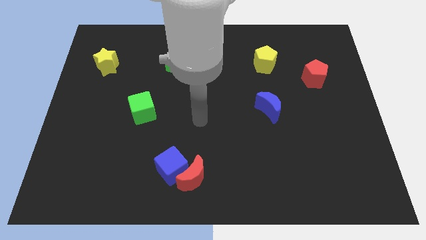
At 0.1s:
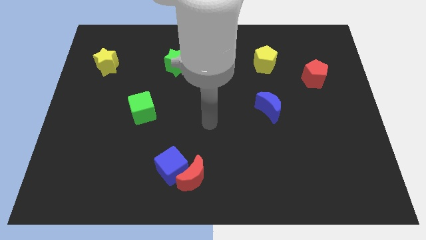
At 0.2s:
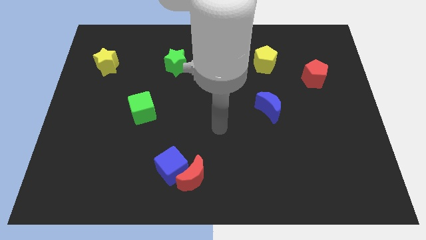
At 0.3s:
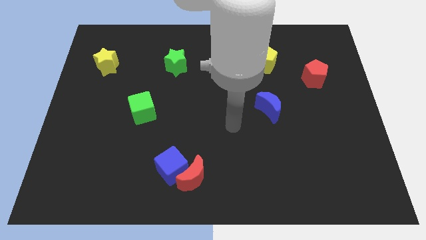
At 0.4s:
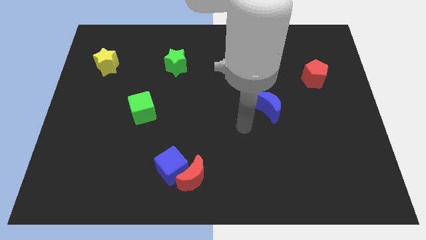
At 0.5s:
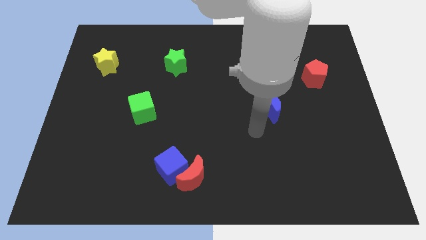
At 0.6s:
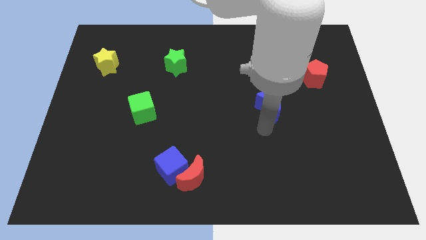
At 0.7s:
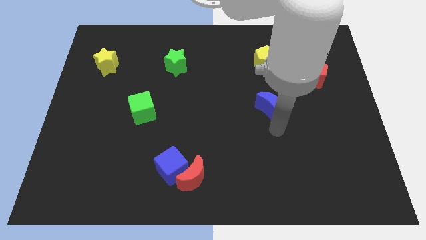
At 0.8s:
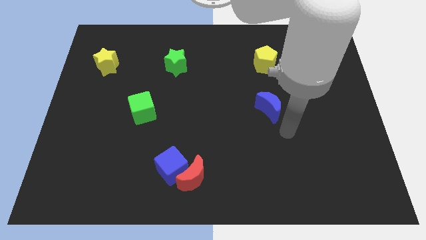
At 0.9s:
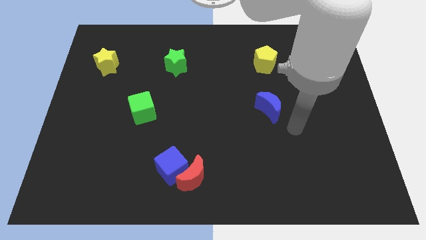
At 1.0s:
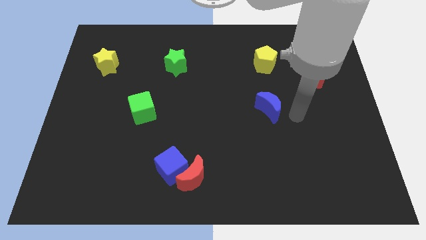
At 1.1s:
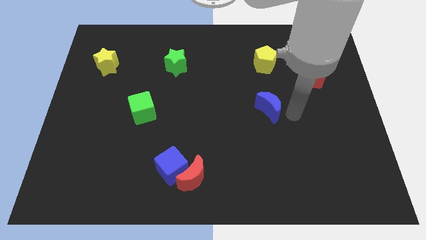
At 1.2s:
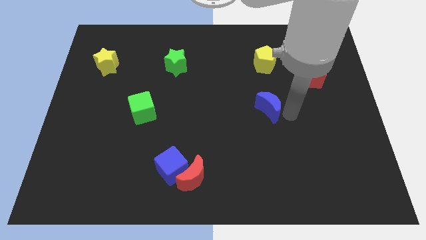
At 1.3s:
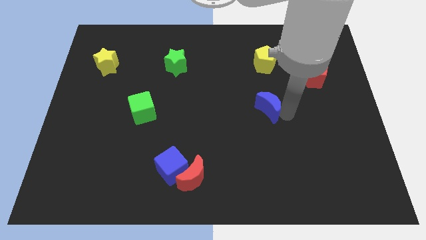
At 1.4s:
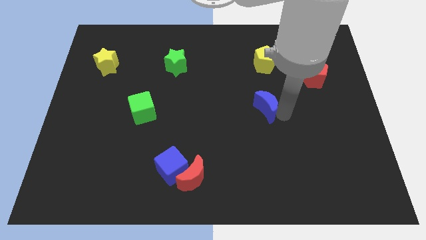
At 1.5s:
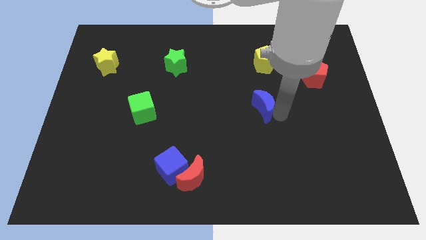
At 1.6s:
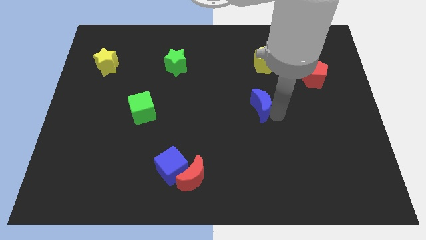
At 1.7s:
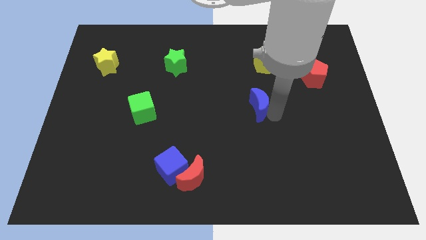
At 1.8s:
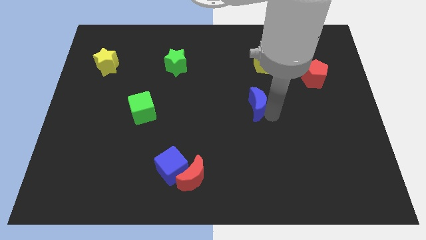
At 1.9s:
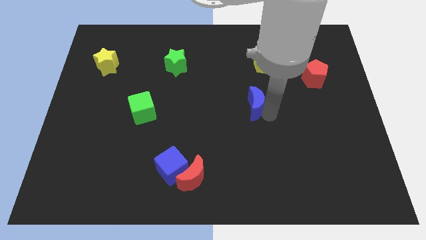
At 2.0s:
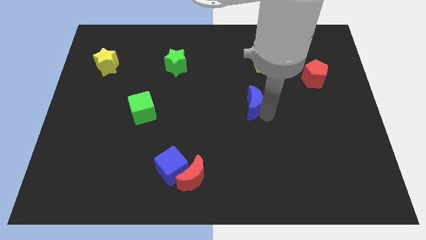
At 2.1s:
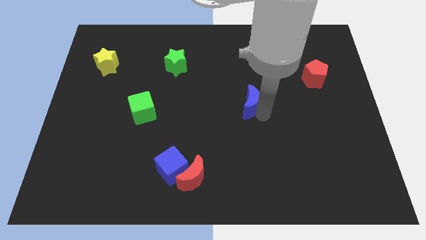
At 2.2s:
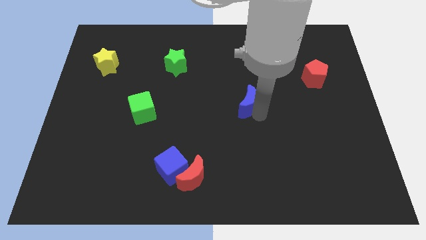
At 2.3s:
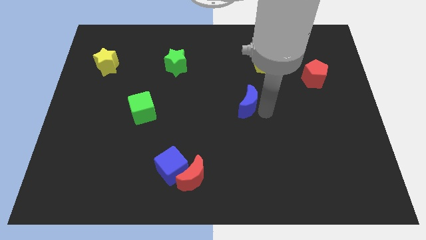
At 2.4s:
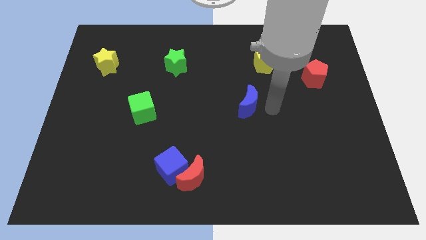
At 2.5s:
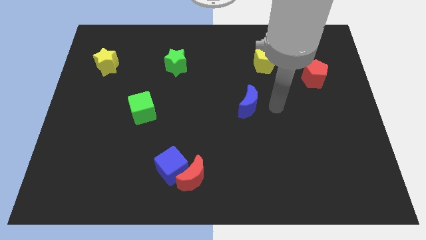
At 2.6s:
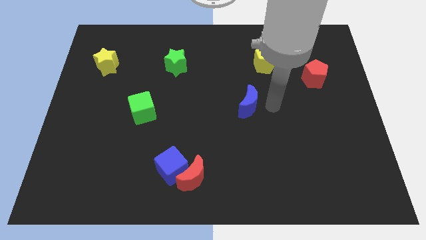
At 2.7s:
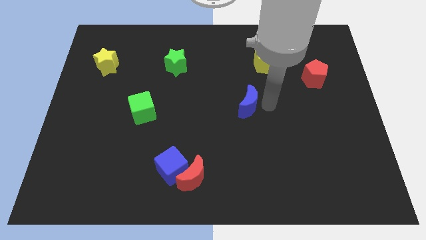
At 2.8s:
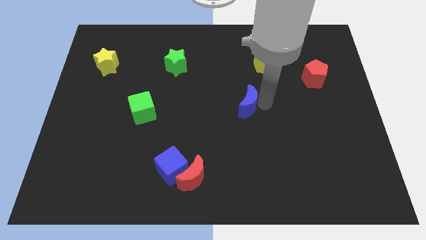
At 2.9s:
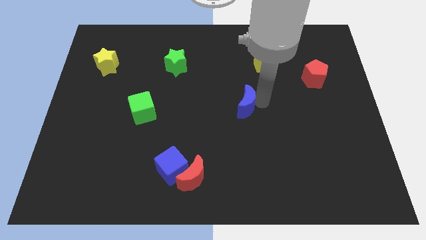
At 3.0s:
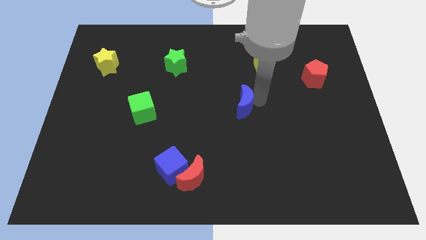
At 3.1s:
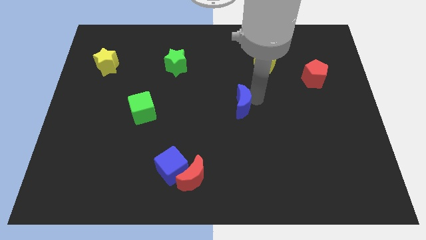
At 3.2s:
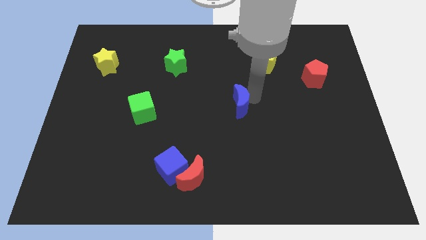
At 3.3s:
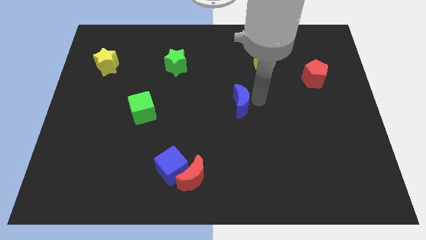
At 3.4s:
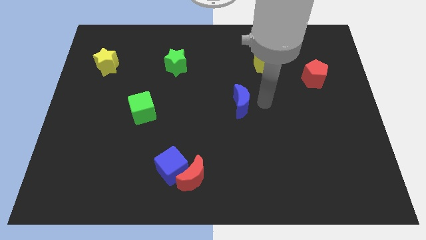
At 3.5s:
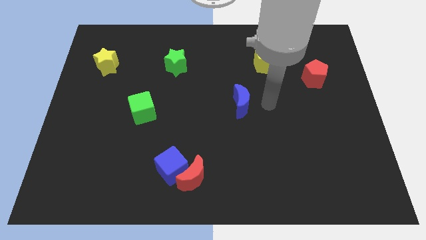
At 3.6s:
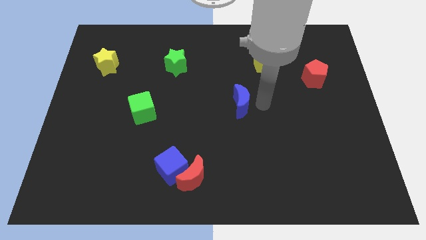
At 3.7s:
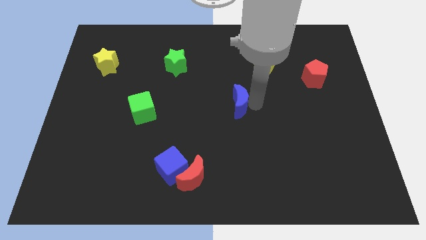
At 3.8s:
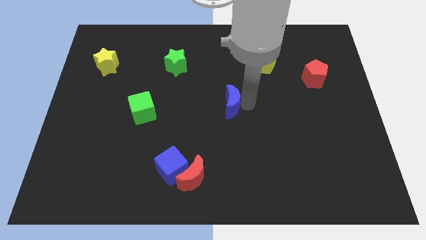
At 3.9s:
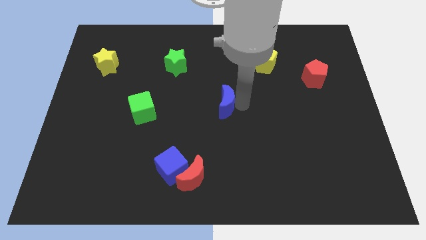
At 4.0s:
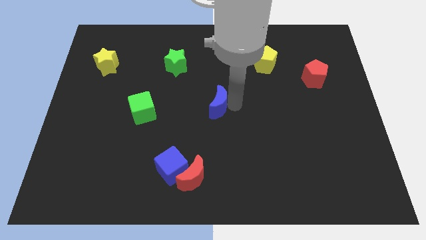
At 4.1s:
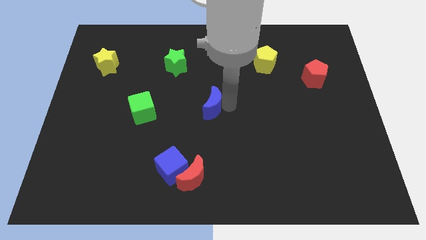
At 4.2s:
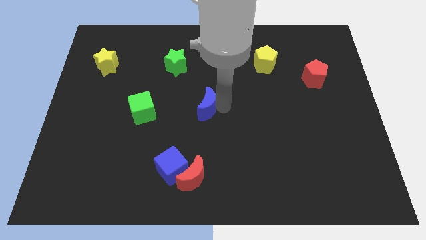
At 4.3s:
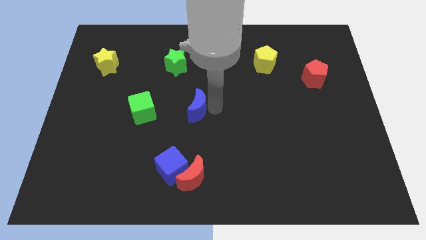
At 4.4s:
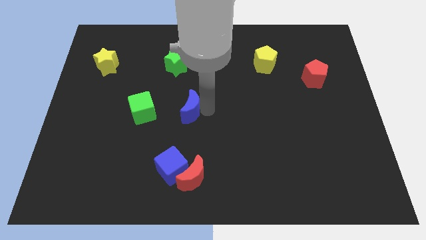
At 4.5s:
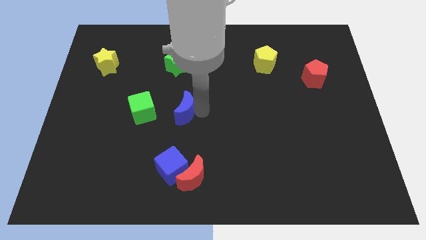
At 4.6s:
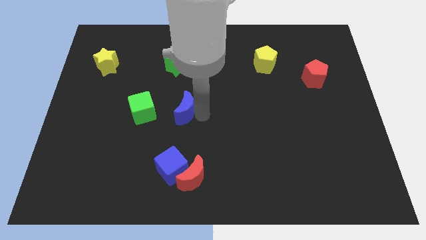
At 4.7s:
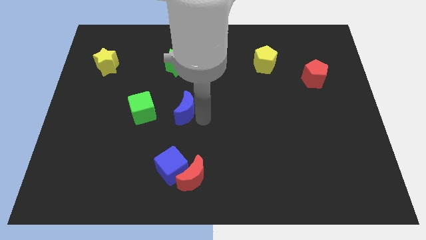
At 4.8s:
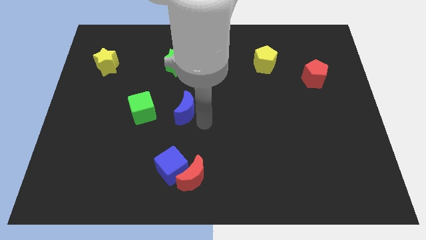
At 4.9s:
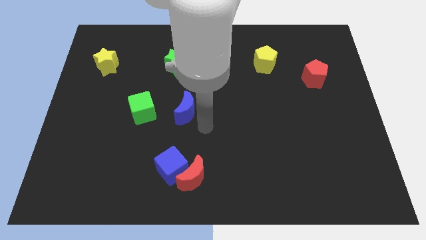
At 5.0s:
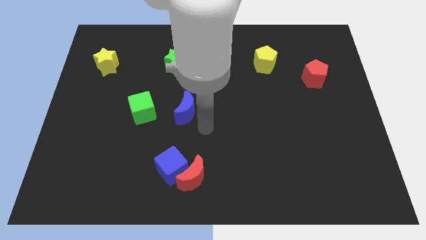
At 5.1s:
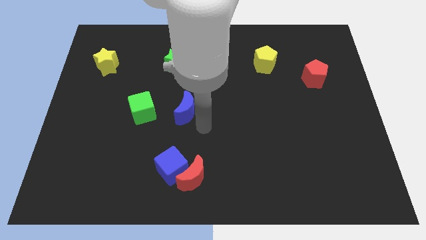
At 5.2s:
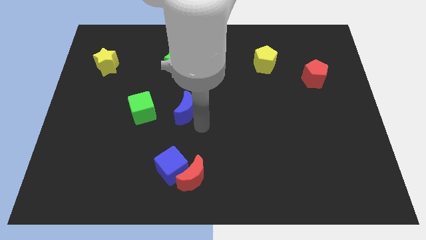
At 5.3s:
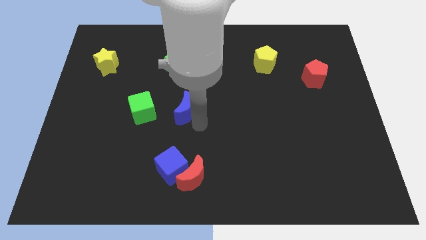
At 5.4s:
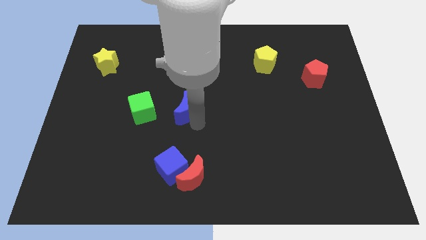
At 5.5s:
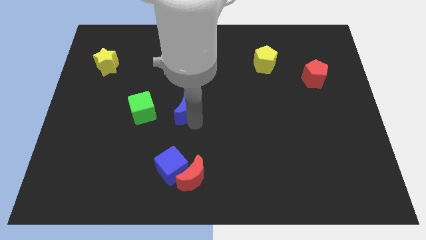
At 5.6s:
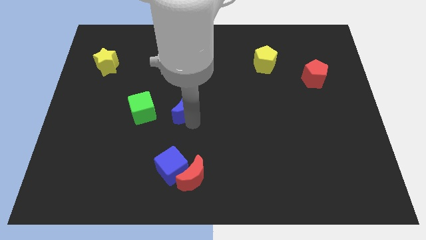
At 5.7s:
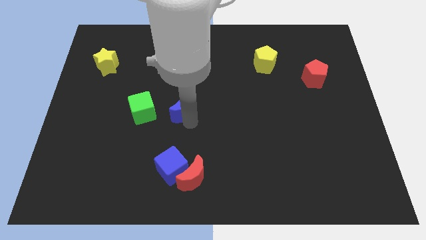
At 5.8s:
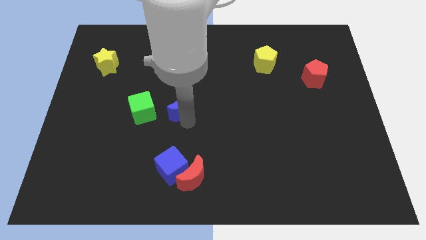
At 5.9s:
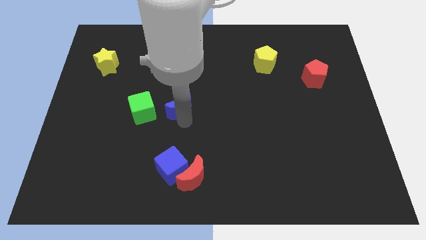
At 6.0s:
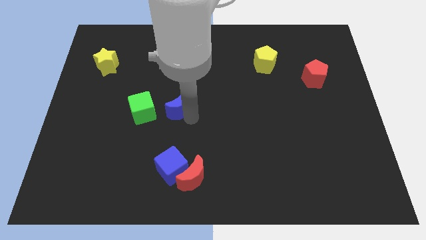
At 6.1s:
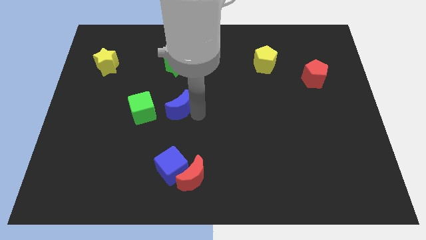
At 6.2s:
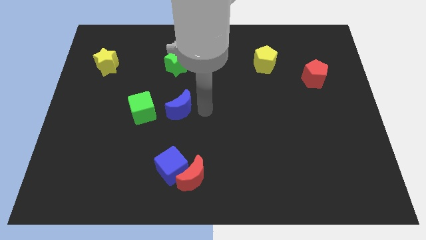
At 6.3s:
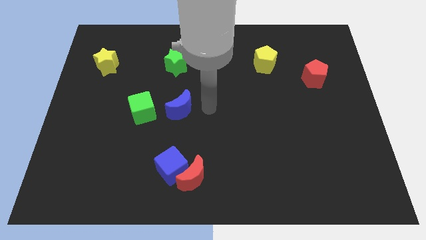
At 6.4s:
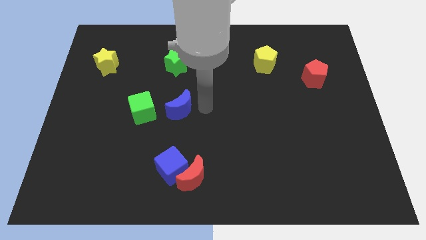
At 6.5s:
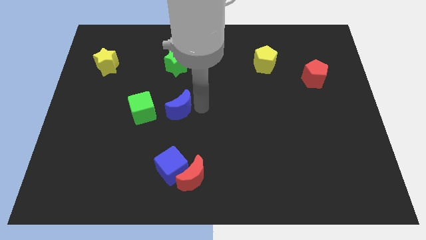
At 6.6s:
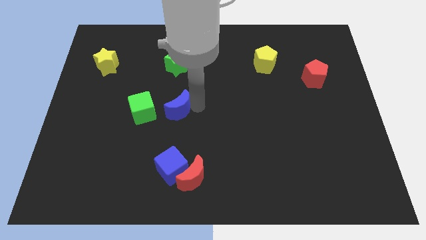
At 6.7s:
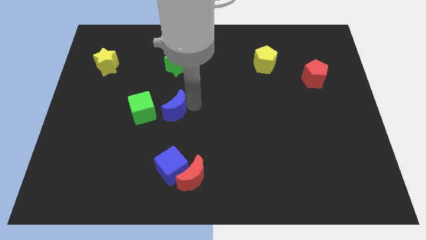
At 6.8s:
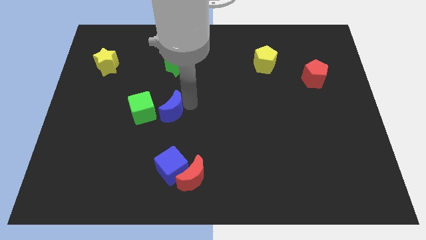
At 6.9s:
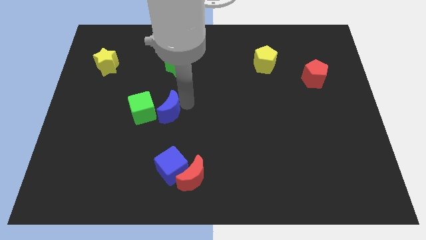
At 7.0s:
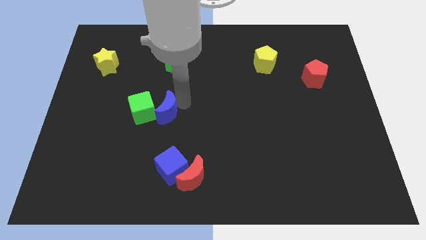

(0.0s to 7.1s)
move the blue moon towards the green cube

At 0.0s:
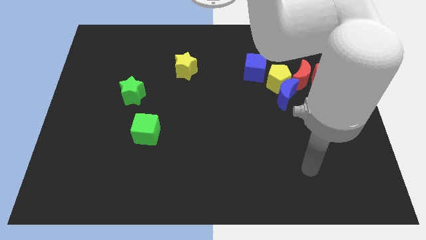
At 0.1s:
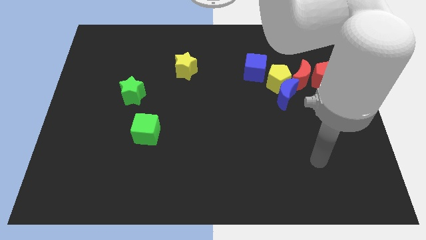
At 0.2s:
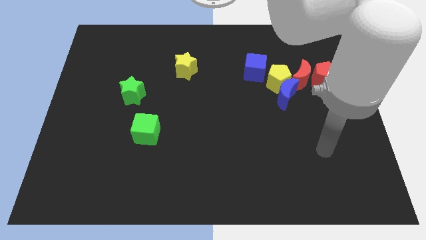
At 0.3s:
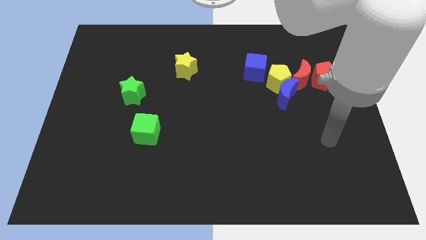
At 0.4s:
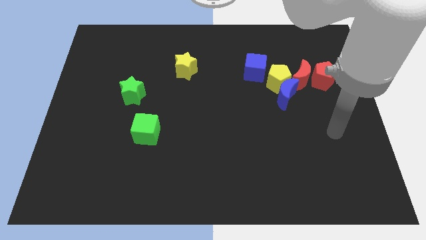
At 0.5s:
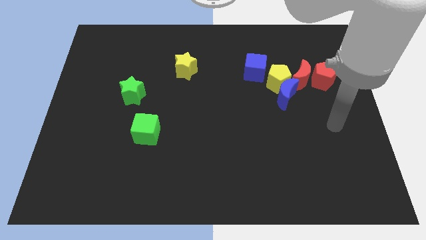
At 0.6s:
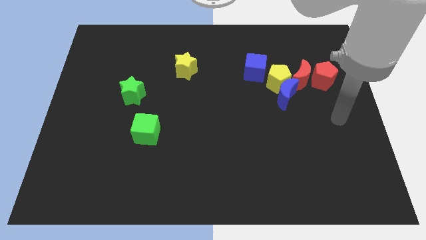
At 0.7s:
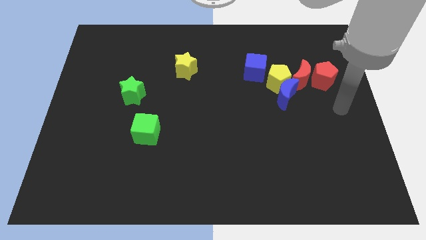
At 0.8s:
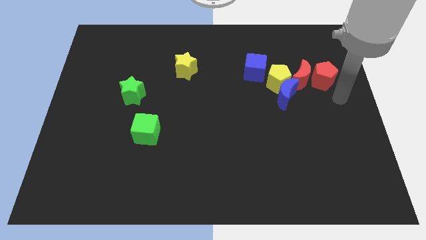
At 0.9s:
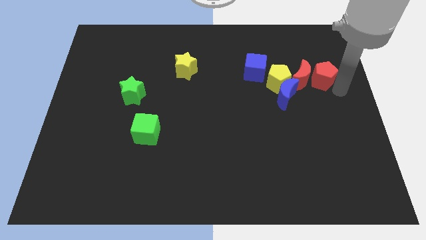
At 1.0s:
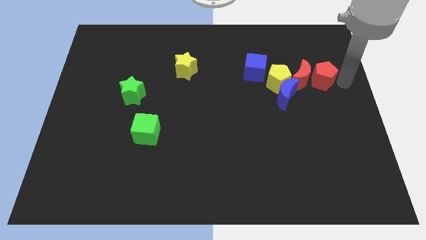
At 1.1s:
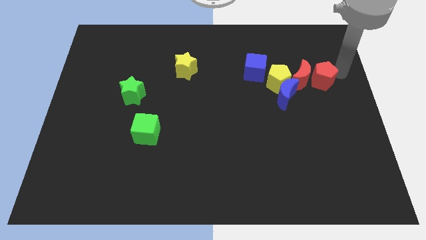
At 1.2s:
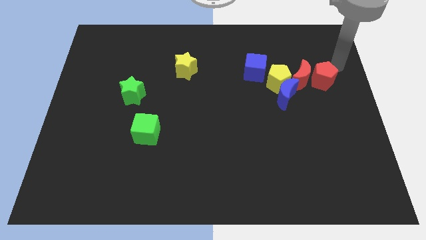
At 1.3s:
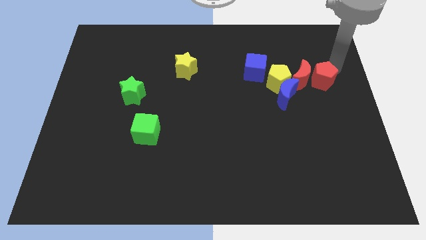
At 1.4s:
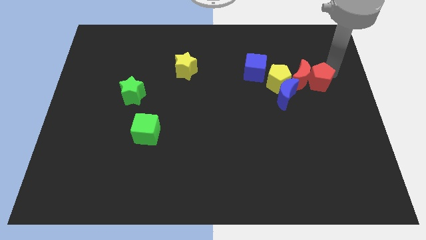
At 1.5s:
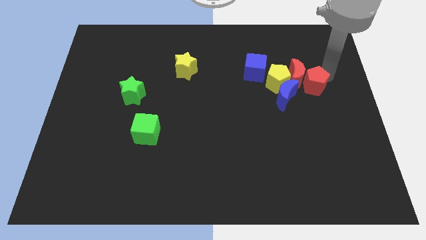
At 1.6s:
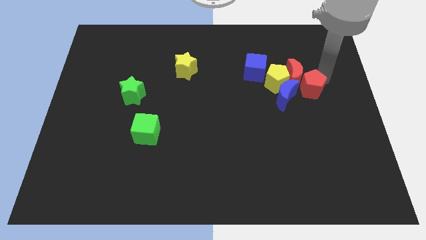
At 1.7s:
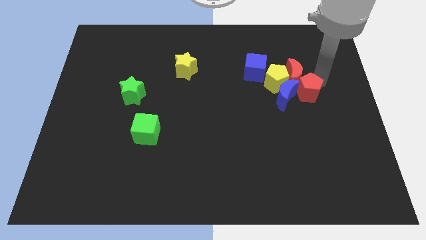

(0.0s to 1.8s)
push the red pentagon to the blue moon
